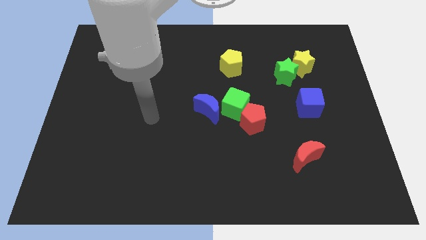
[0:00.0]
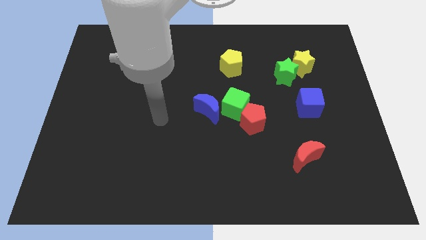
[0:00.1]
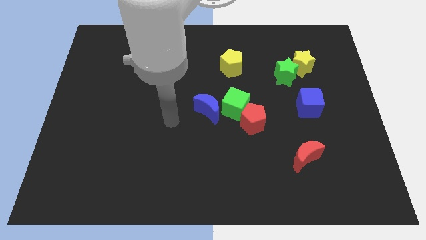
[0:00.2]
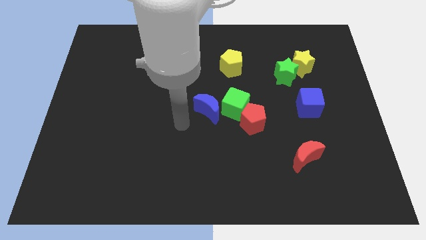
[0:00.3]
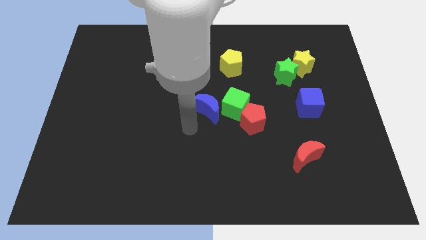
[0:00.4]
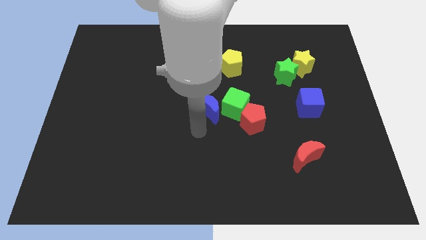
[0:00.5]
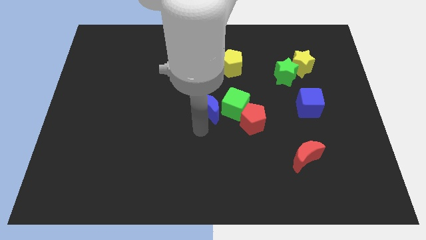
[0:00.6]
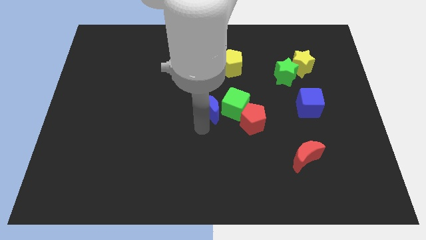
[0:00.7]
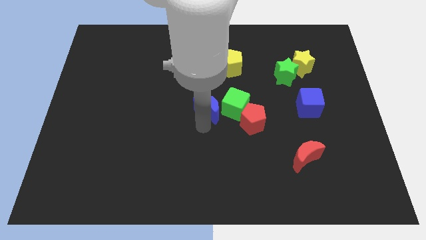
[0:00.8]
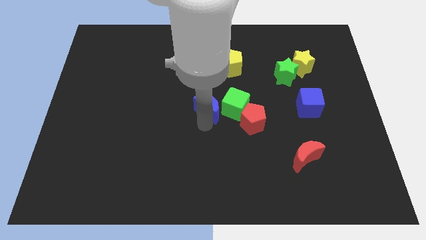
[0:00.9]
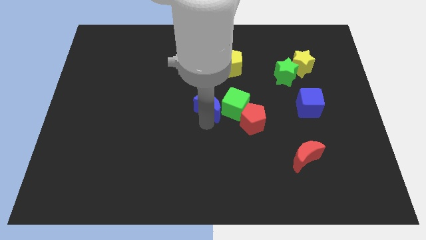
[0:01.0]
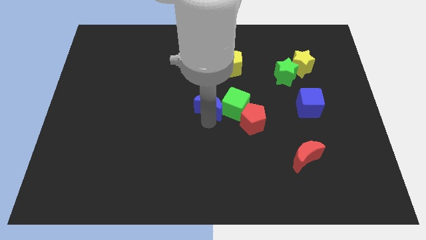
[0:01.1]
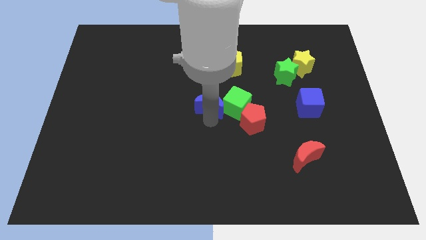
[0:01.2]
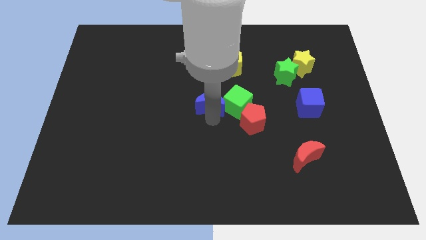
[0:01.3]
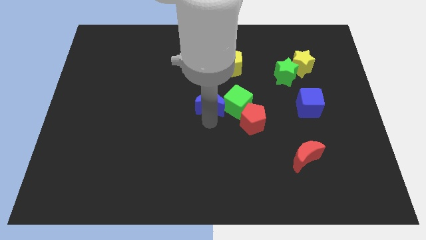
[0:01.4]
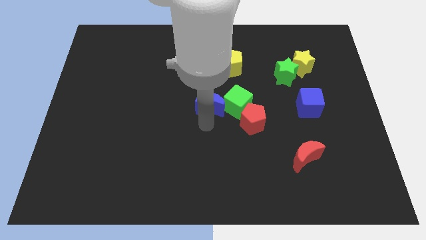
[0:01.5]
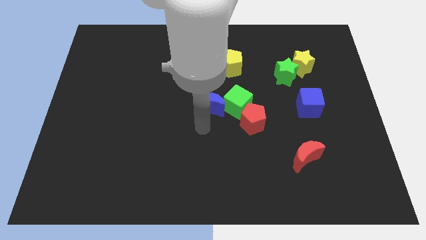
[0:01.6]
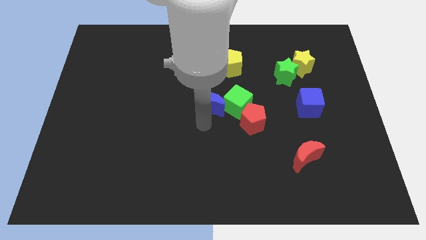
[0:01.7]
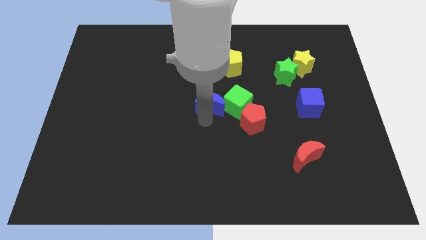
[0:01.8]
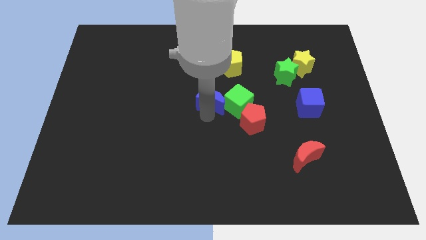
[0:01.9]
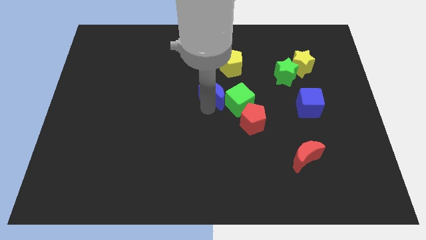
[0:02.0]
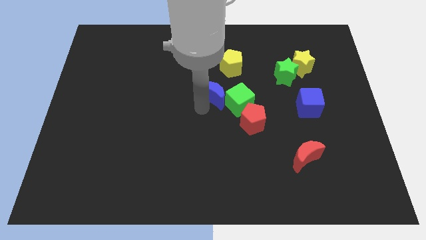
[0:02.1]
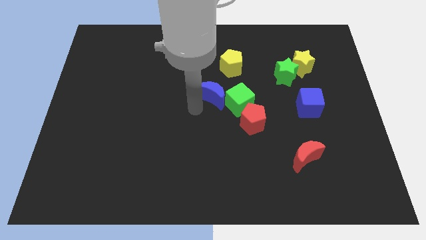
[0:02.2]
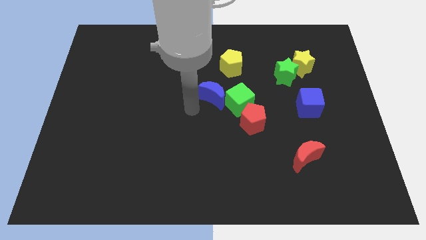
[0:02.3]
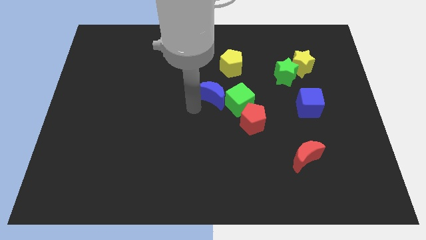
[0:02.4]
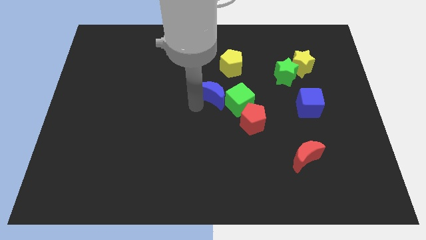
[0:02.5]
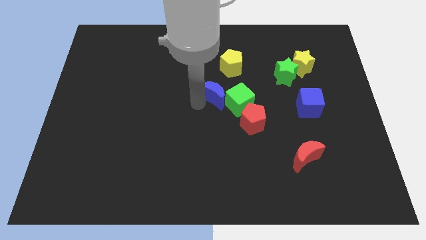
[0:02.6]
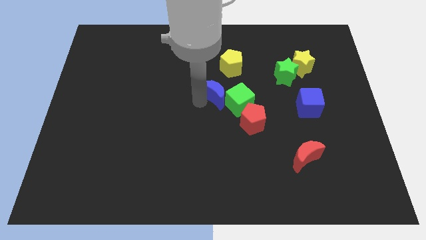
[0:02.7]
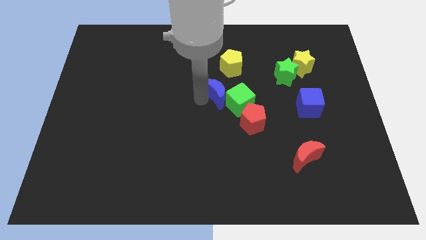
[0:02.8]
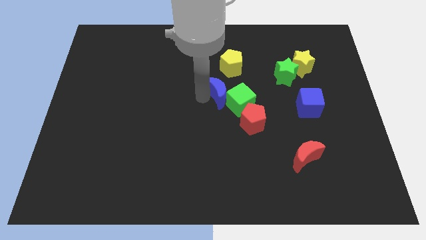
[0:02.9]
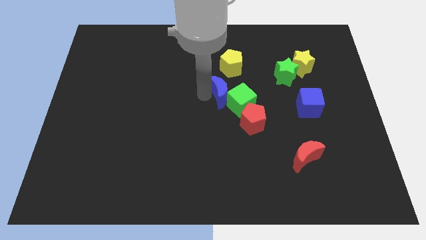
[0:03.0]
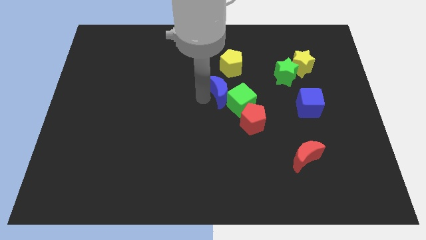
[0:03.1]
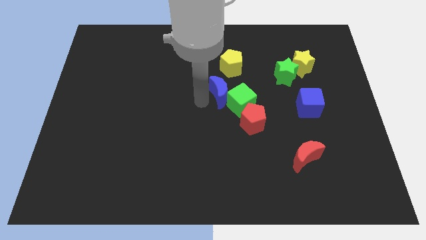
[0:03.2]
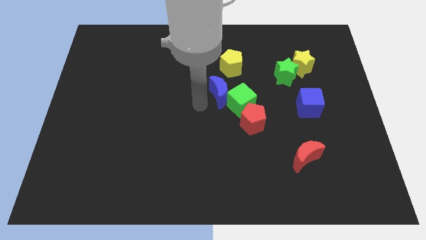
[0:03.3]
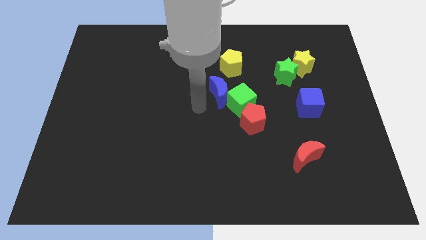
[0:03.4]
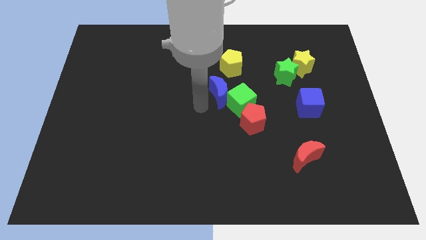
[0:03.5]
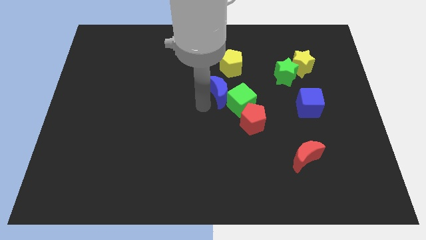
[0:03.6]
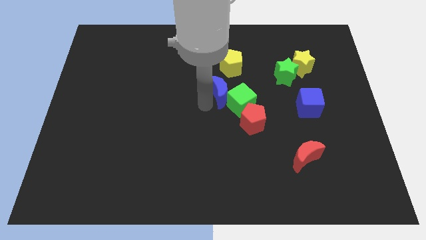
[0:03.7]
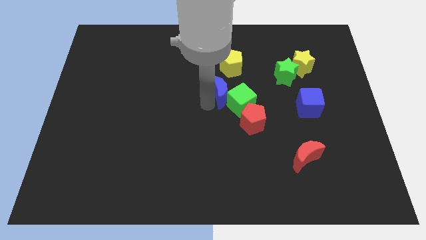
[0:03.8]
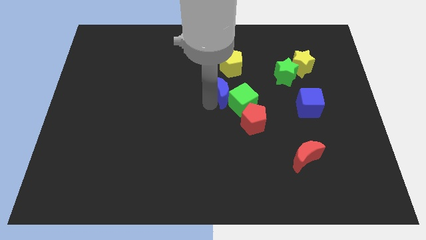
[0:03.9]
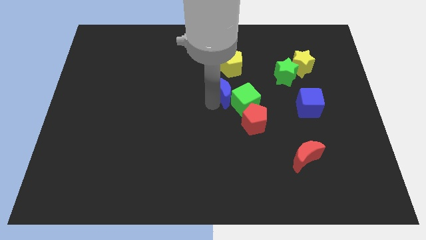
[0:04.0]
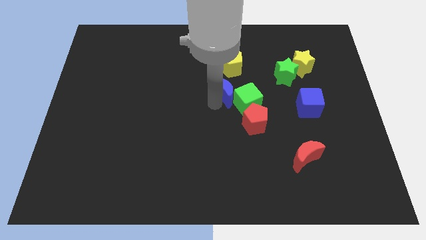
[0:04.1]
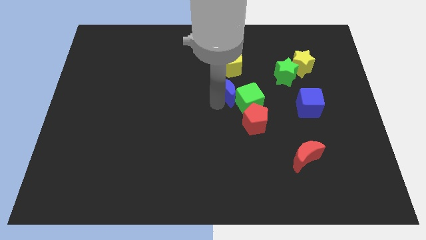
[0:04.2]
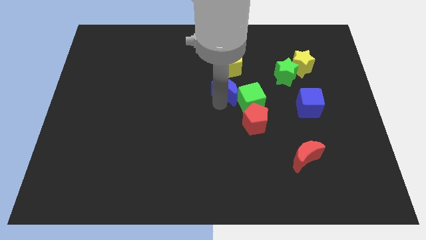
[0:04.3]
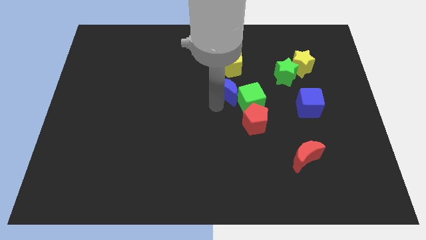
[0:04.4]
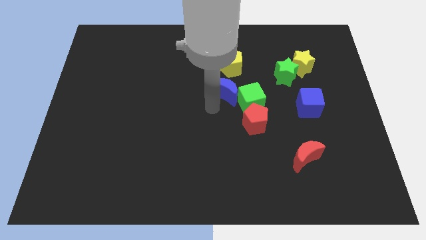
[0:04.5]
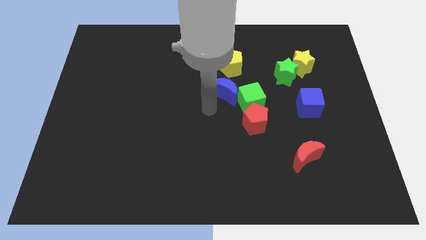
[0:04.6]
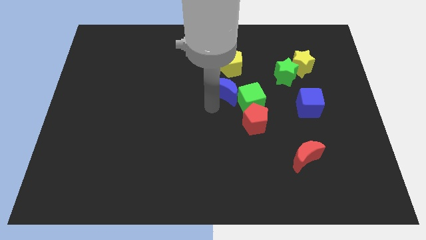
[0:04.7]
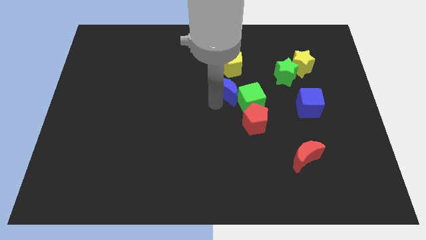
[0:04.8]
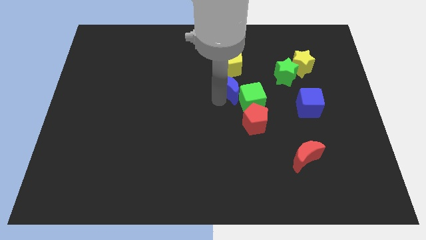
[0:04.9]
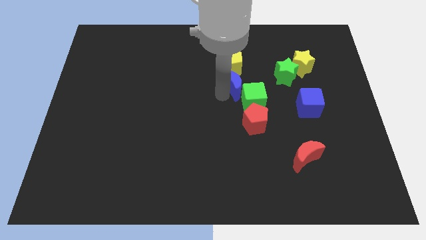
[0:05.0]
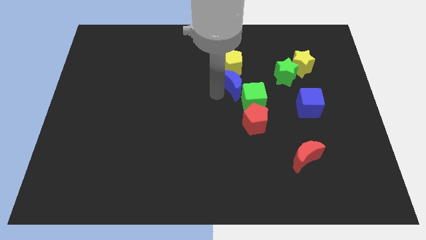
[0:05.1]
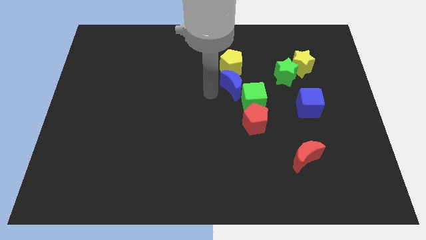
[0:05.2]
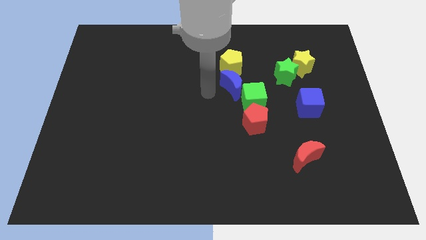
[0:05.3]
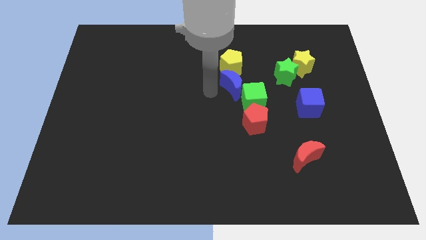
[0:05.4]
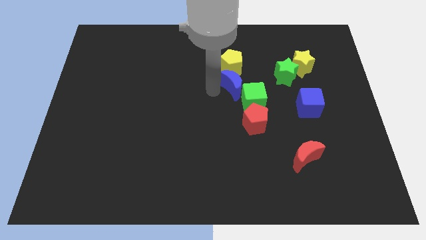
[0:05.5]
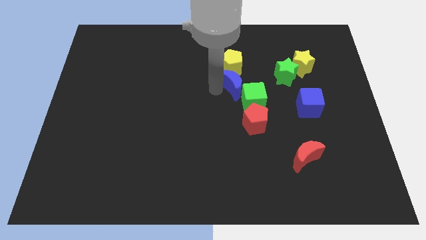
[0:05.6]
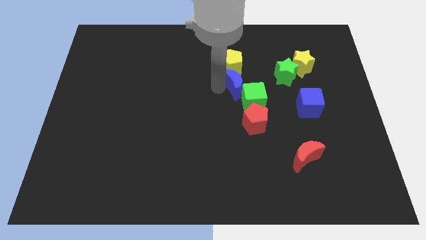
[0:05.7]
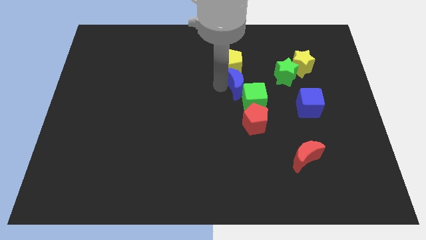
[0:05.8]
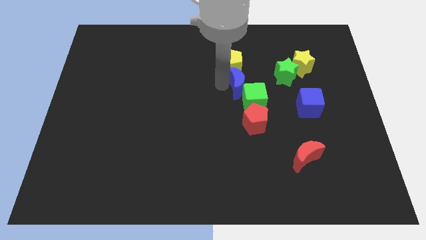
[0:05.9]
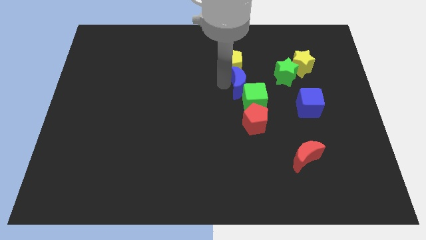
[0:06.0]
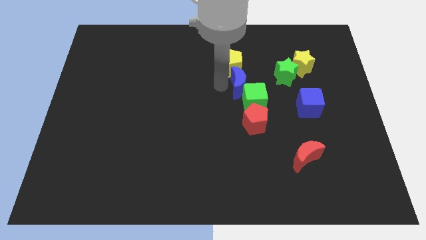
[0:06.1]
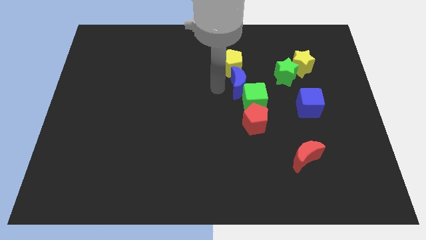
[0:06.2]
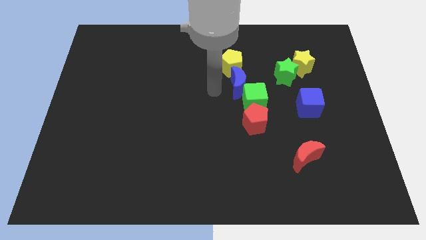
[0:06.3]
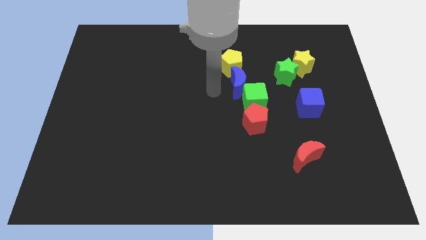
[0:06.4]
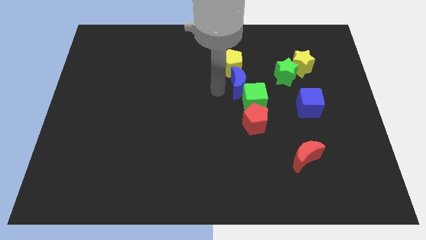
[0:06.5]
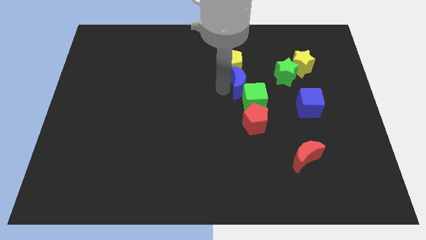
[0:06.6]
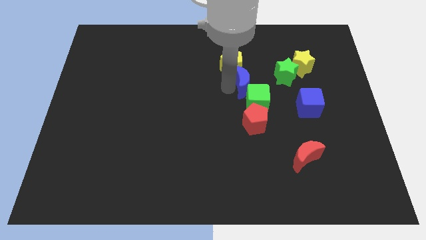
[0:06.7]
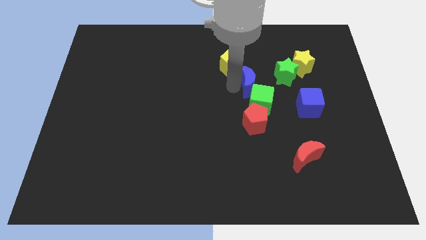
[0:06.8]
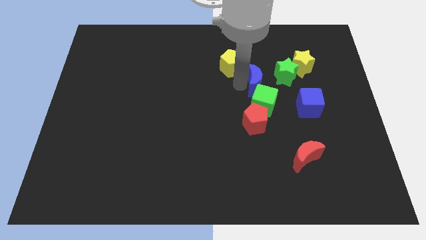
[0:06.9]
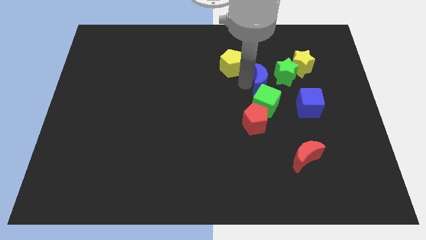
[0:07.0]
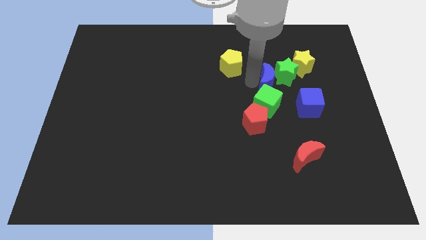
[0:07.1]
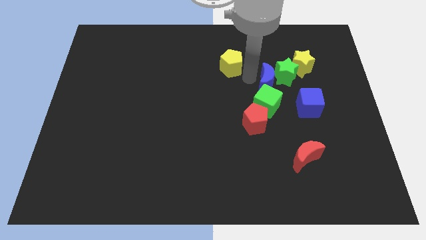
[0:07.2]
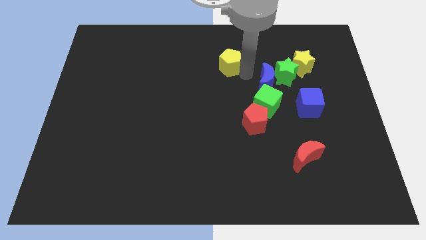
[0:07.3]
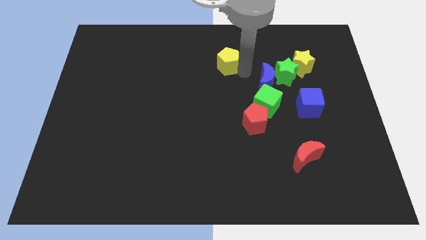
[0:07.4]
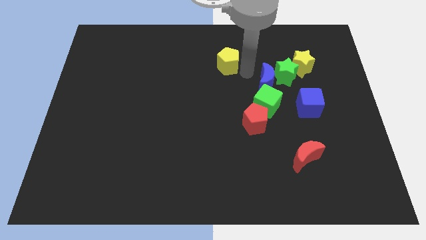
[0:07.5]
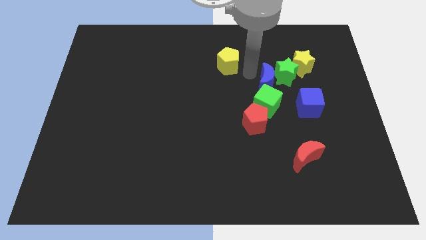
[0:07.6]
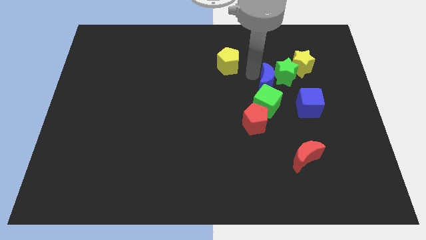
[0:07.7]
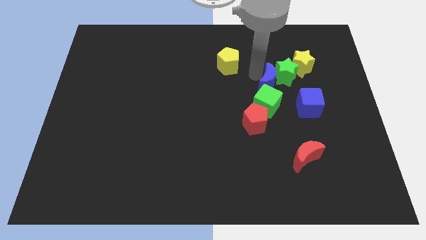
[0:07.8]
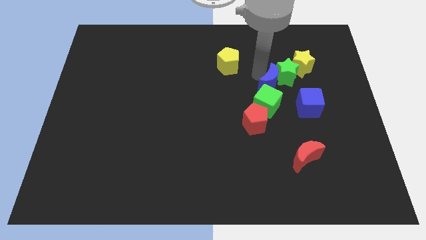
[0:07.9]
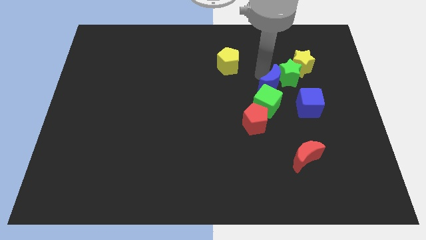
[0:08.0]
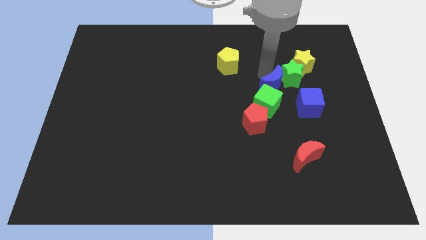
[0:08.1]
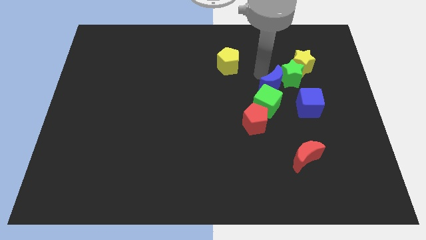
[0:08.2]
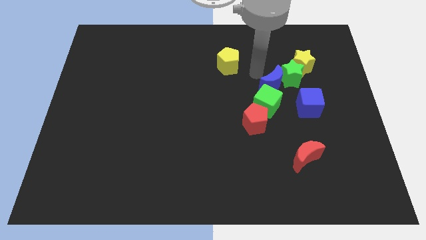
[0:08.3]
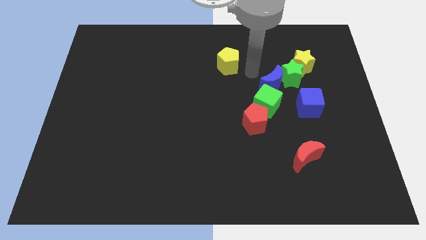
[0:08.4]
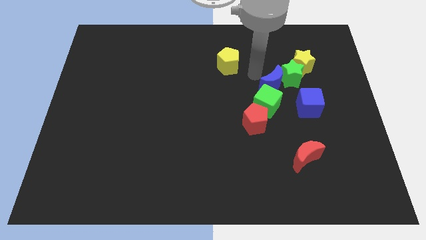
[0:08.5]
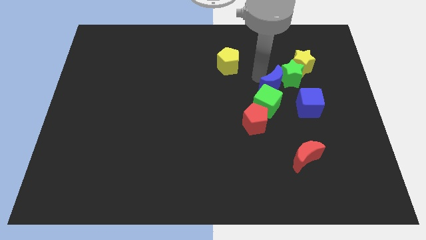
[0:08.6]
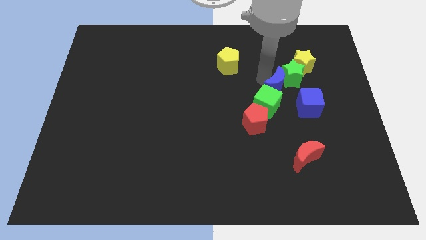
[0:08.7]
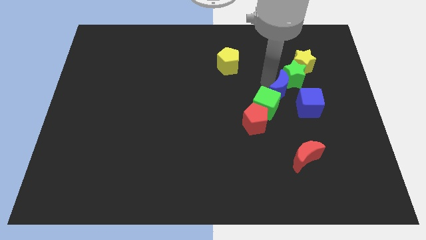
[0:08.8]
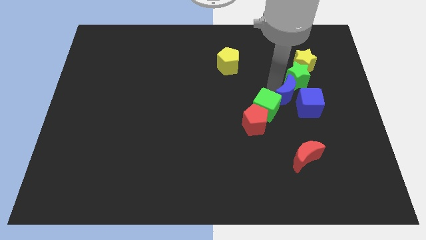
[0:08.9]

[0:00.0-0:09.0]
push the blue moon close to the blue cube
